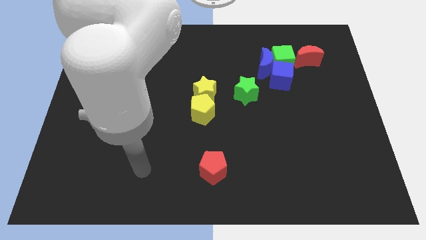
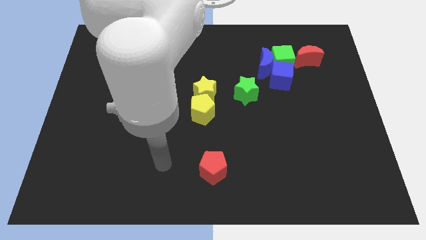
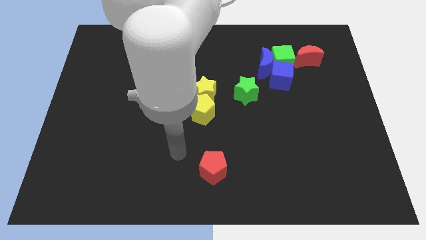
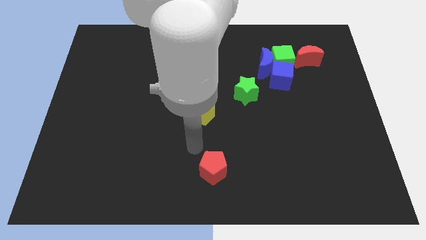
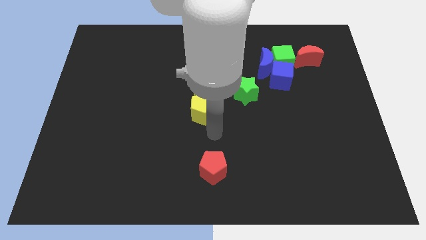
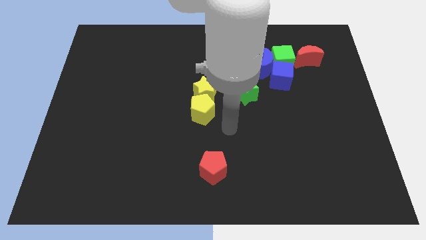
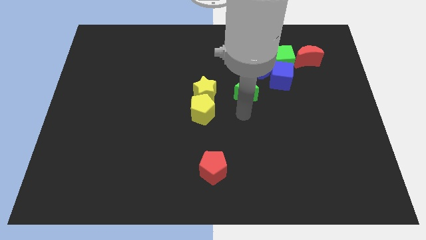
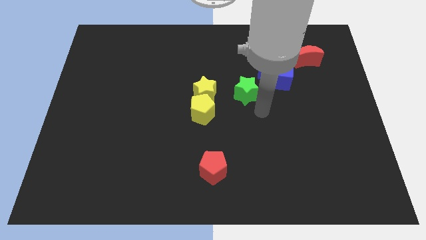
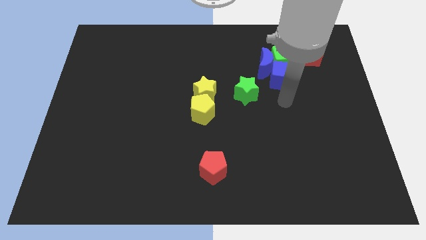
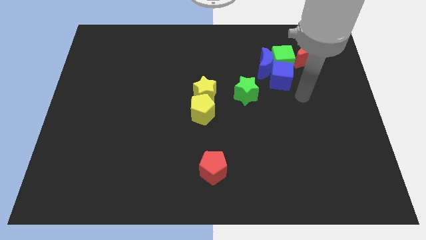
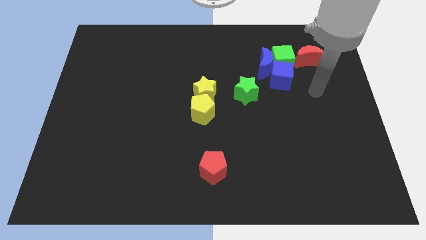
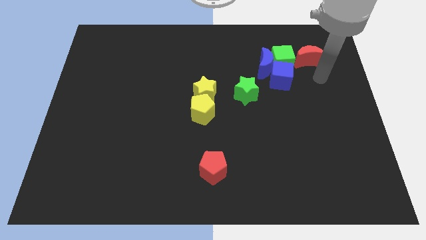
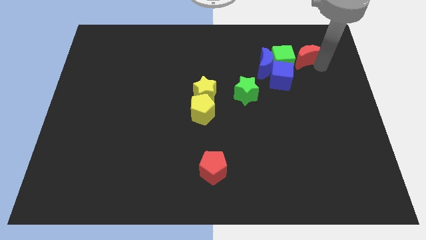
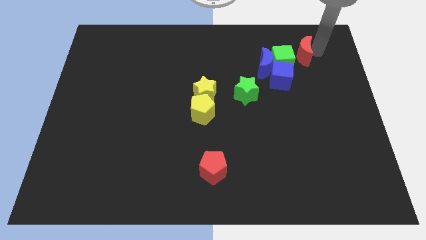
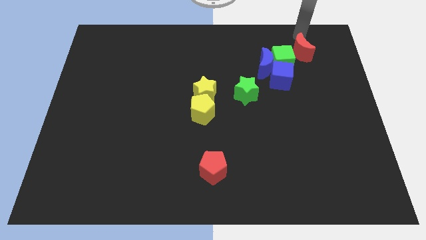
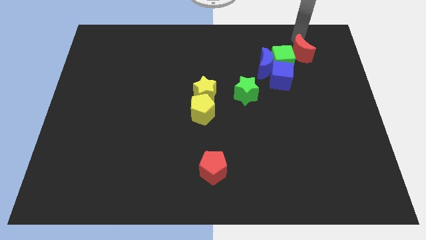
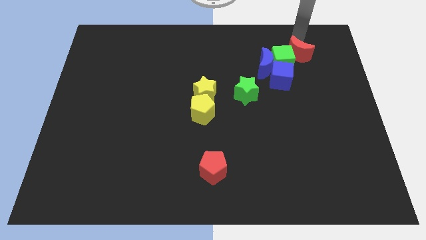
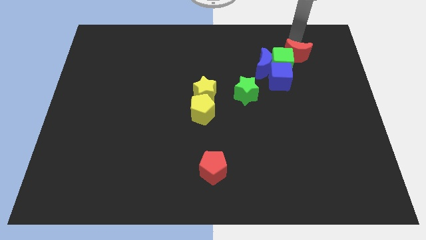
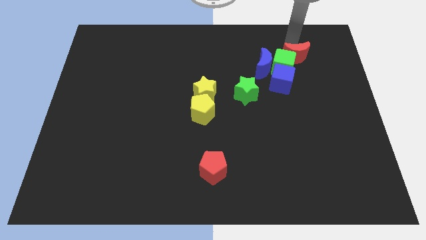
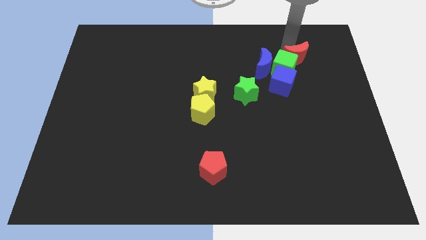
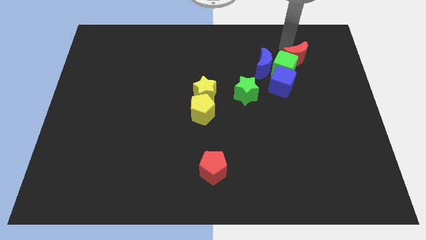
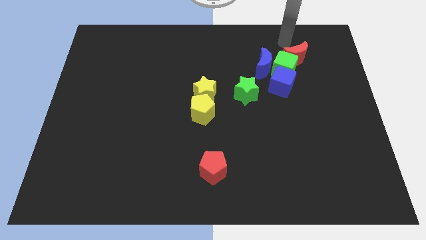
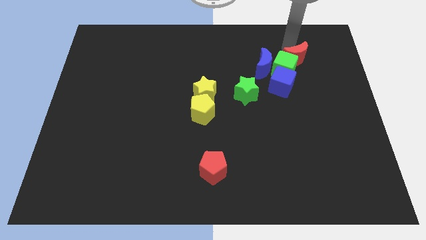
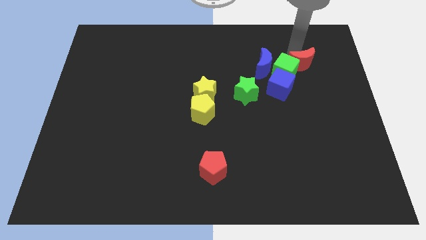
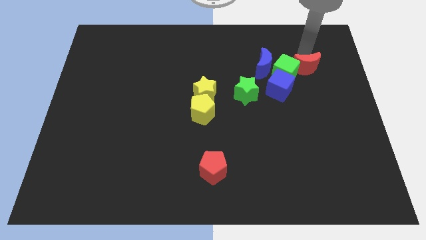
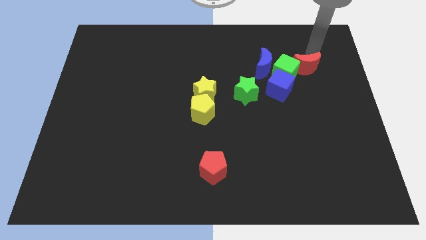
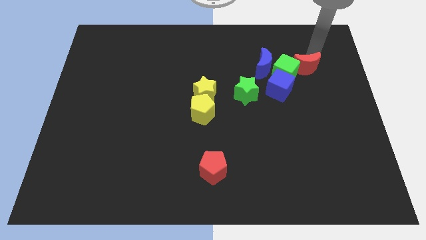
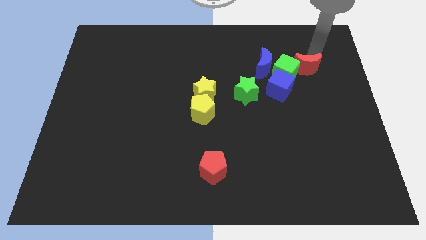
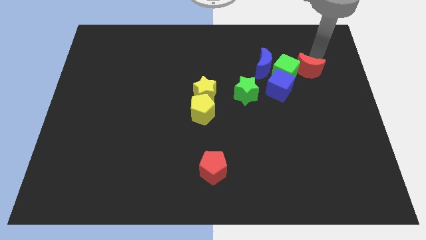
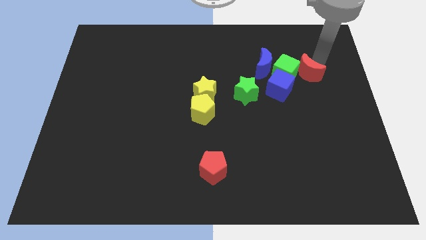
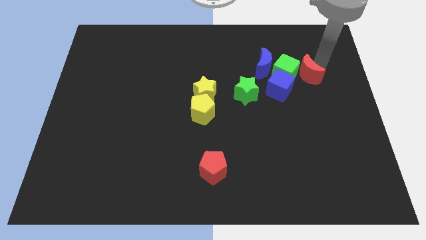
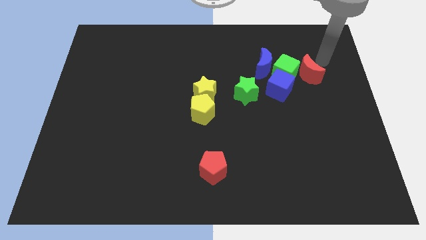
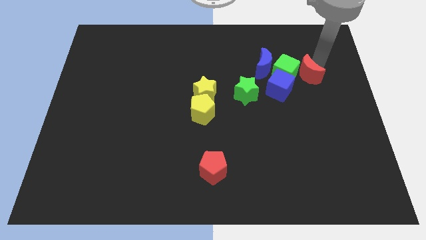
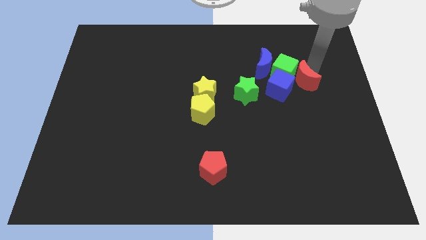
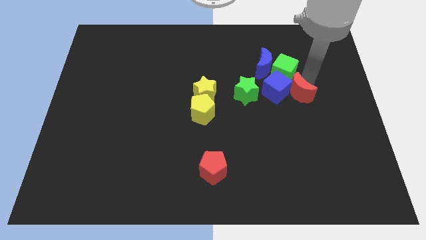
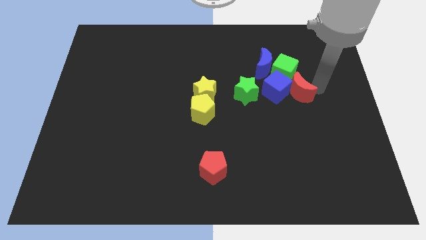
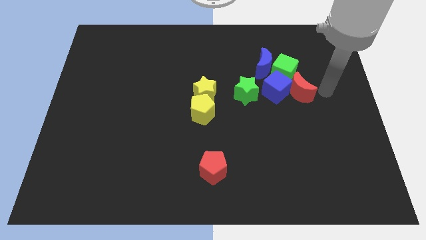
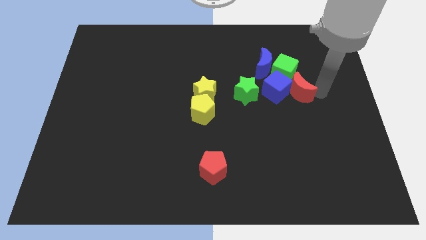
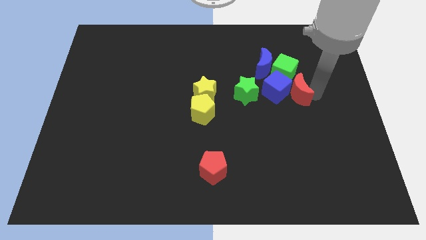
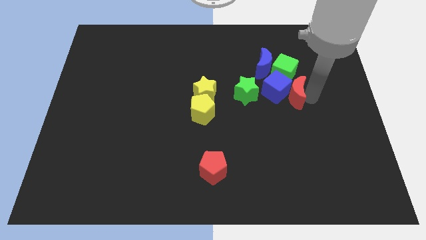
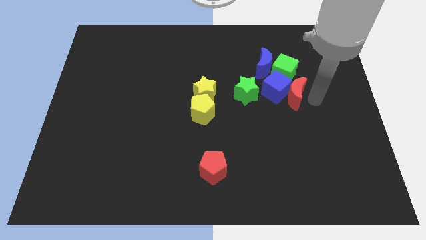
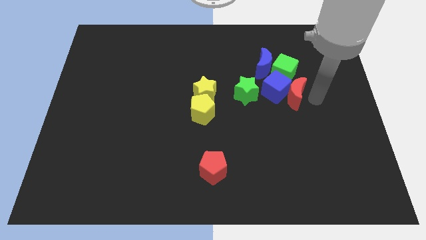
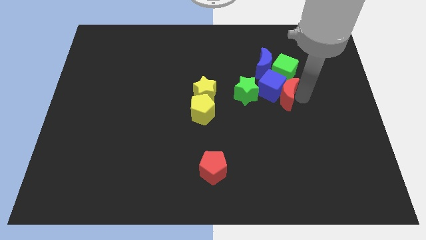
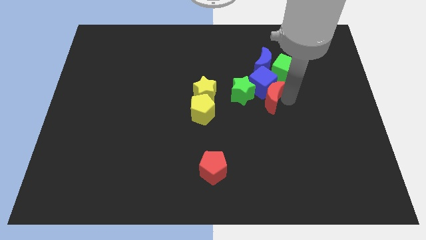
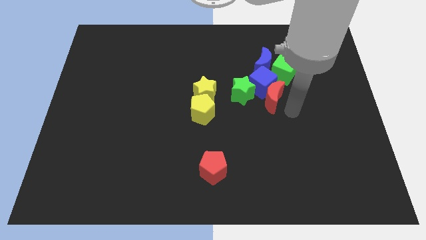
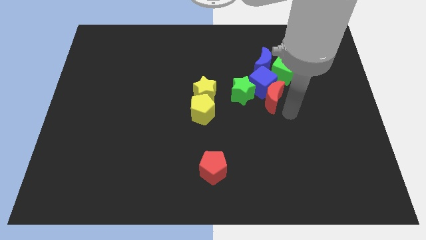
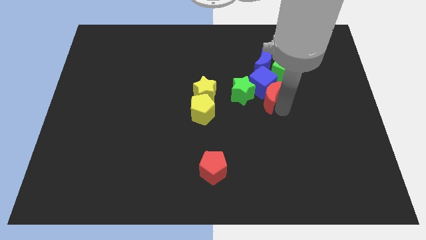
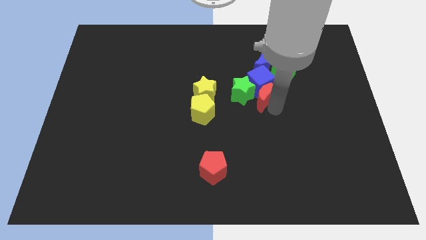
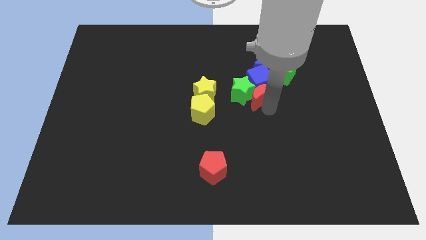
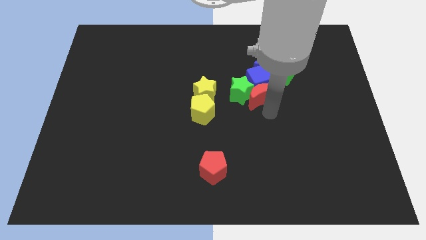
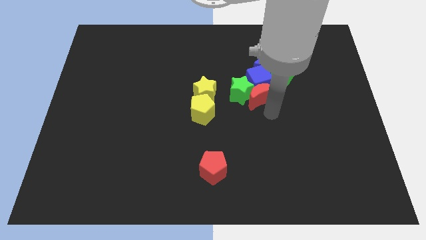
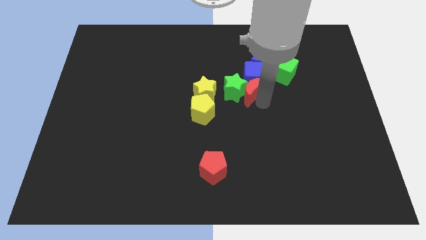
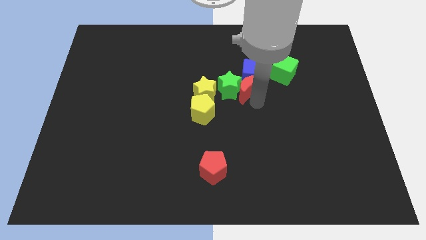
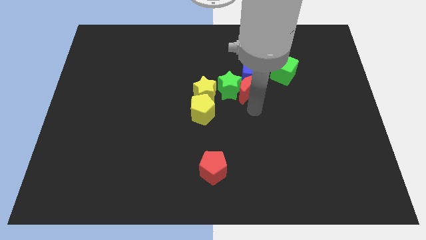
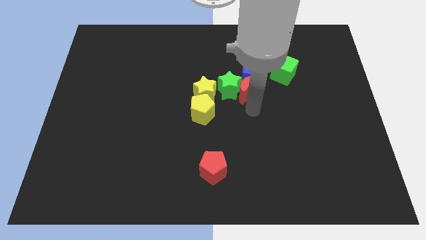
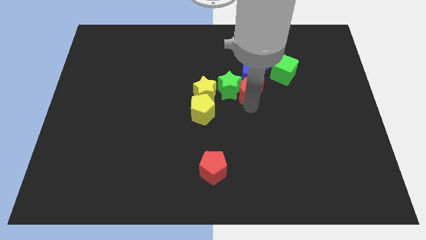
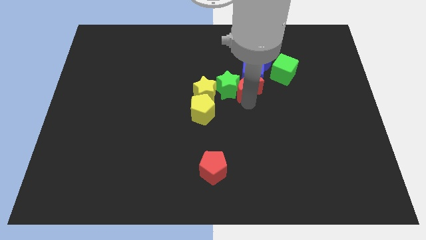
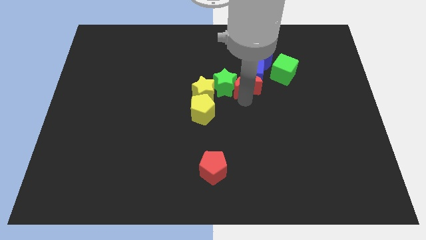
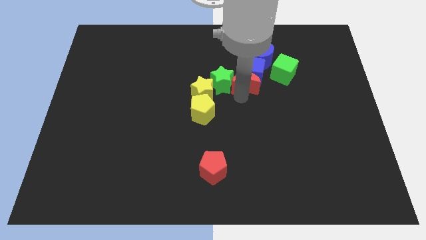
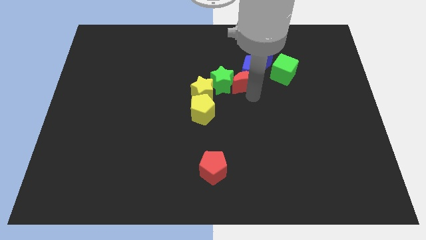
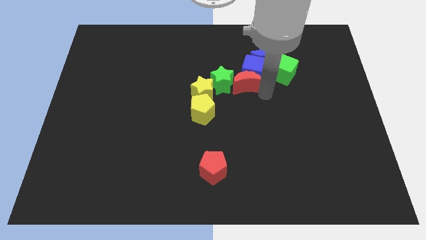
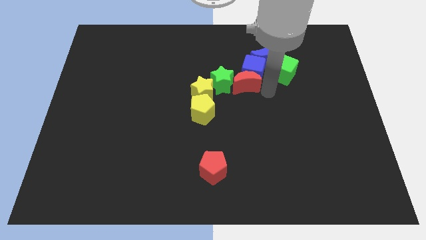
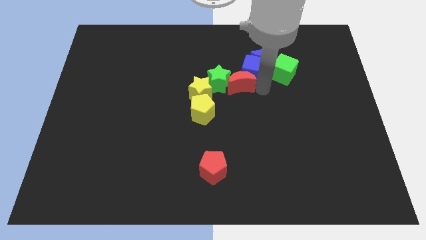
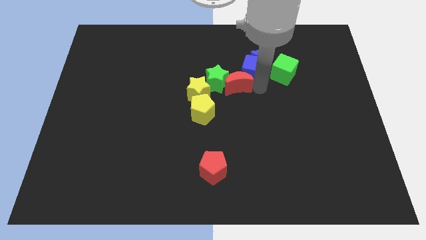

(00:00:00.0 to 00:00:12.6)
slide the red moon to the top right of the yellow star
